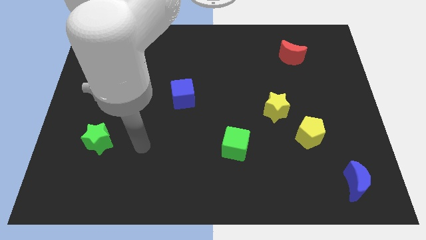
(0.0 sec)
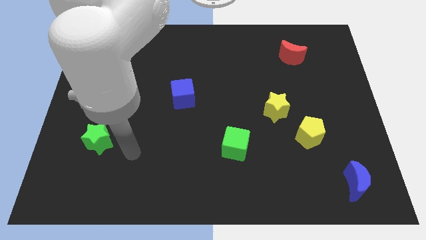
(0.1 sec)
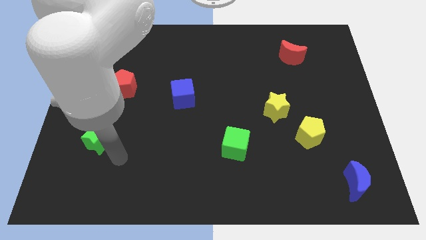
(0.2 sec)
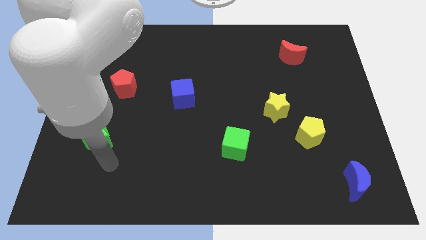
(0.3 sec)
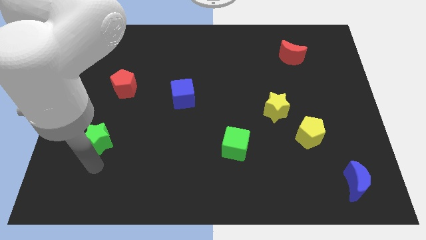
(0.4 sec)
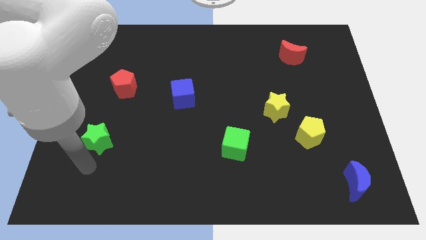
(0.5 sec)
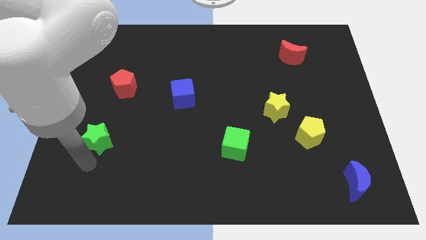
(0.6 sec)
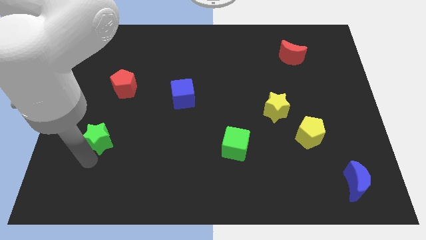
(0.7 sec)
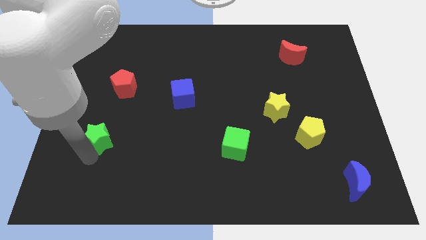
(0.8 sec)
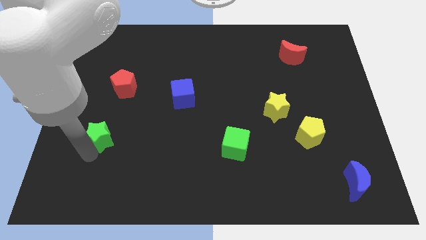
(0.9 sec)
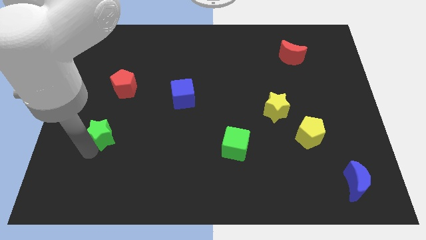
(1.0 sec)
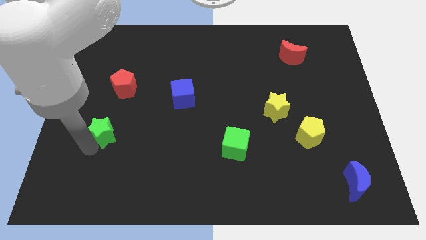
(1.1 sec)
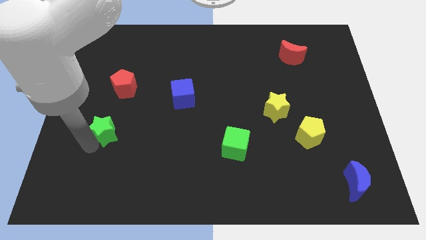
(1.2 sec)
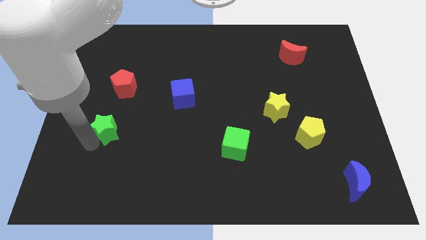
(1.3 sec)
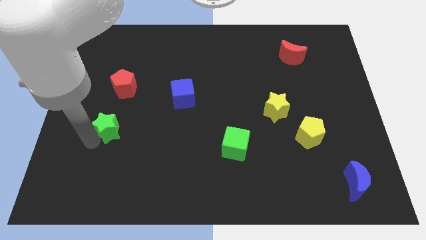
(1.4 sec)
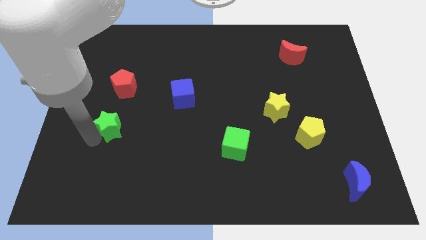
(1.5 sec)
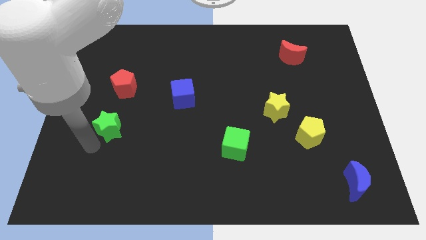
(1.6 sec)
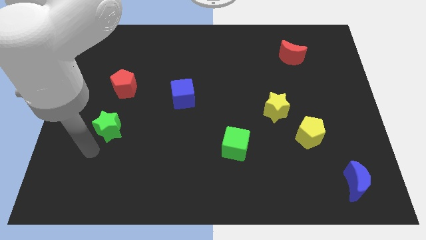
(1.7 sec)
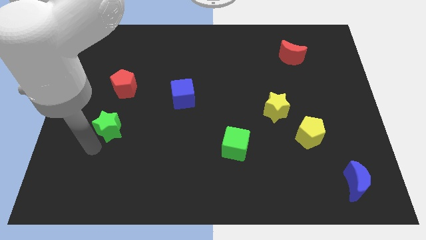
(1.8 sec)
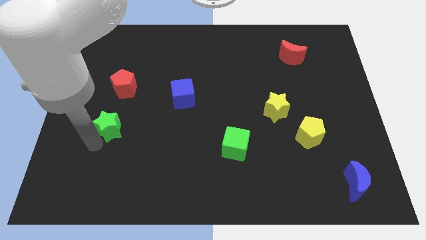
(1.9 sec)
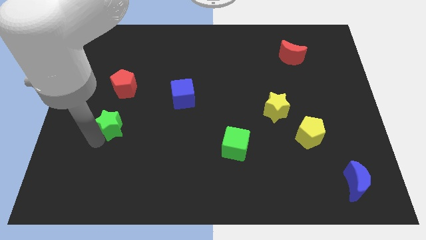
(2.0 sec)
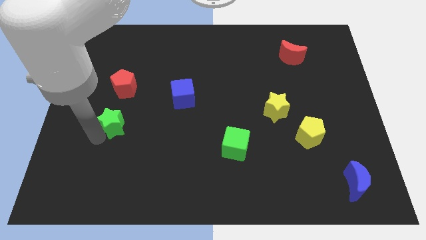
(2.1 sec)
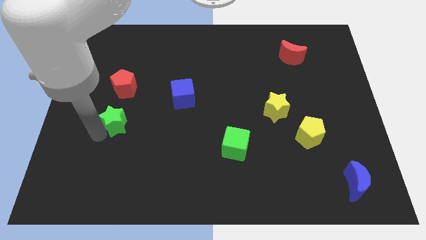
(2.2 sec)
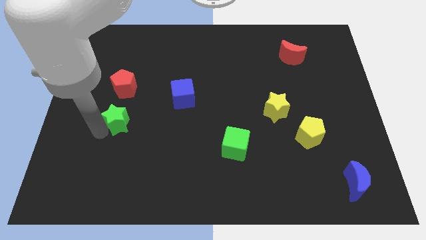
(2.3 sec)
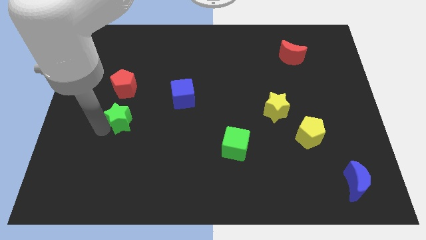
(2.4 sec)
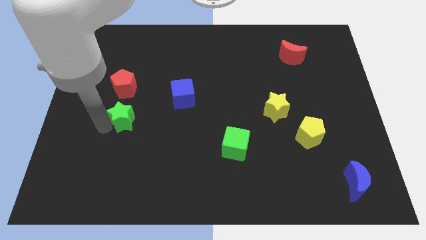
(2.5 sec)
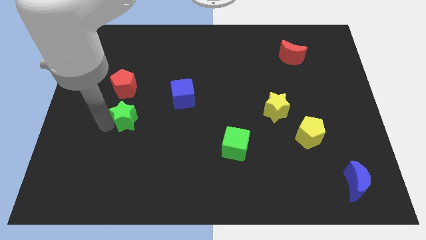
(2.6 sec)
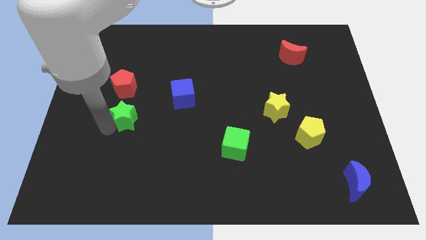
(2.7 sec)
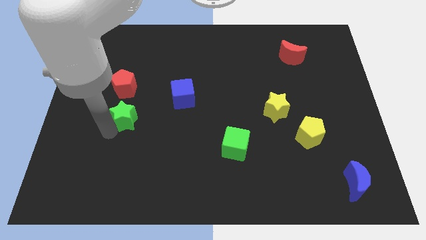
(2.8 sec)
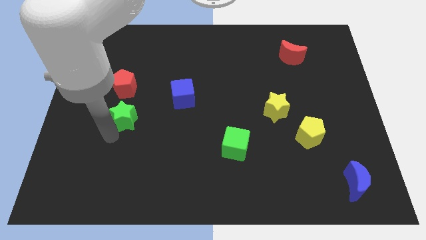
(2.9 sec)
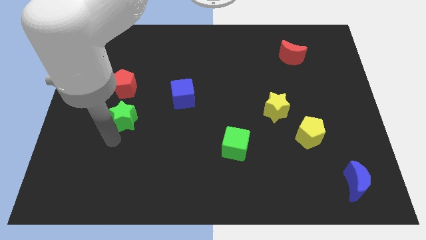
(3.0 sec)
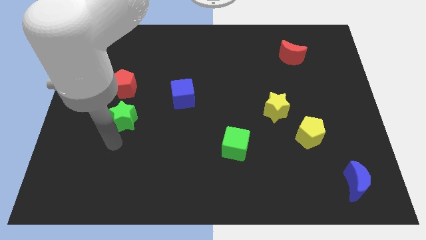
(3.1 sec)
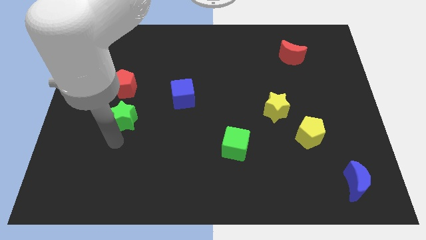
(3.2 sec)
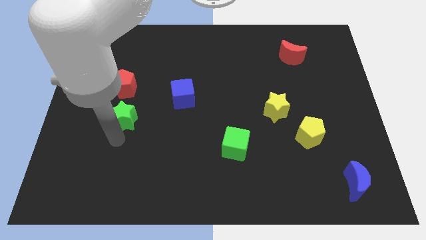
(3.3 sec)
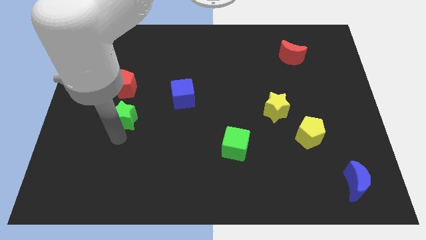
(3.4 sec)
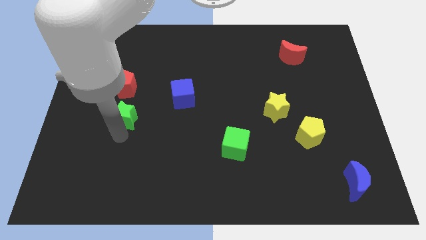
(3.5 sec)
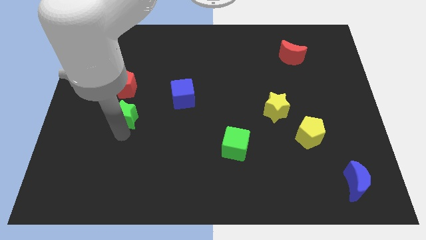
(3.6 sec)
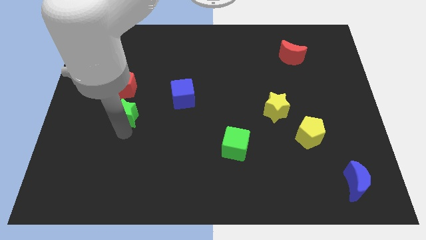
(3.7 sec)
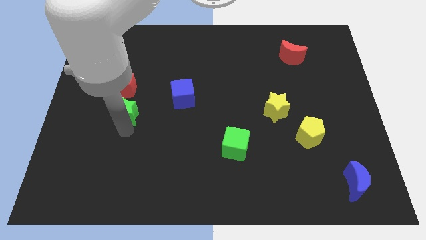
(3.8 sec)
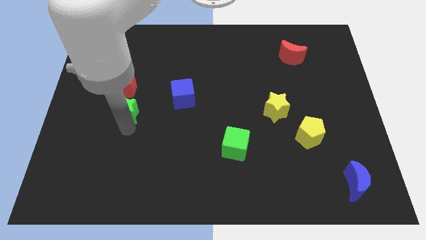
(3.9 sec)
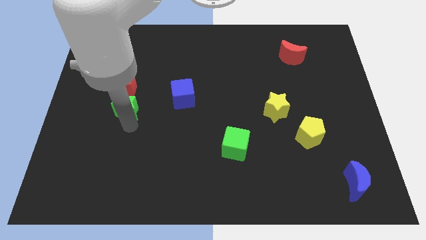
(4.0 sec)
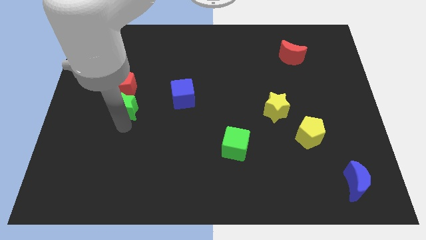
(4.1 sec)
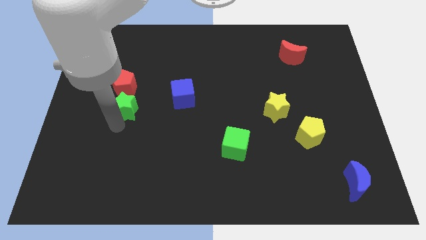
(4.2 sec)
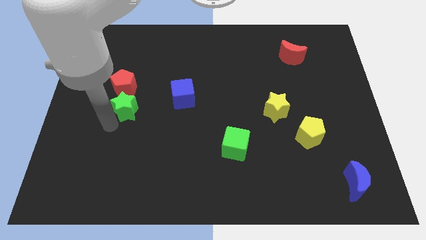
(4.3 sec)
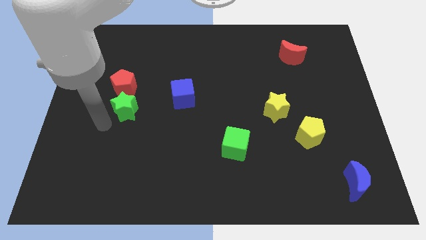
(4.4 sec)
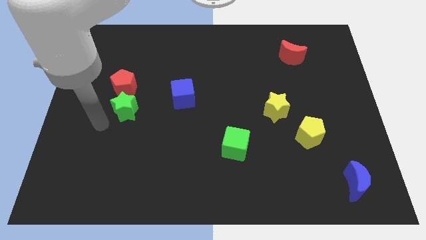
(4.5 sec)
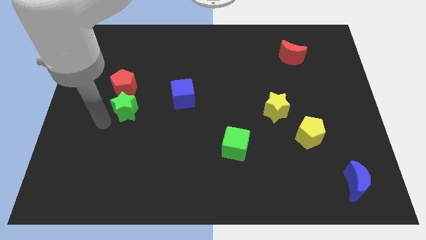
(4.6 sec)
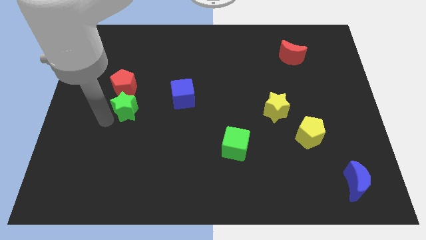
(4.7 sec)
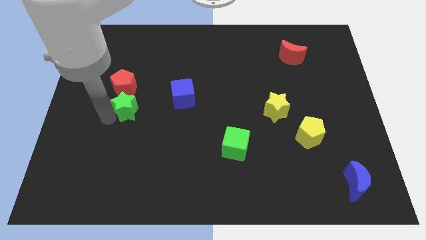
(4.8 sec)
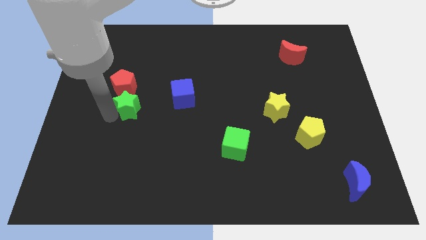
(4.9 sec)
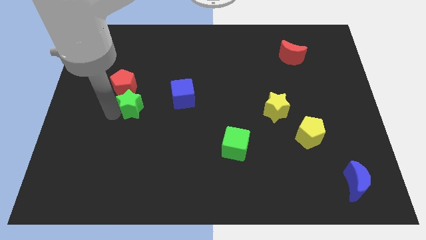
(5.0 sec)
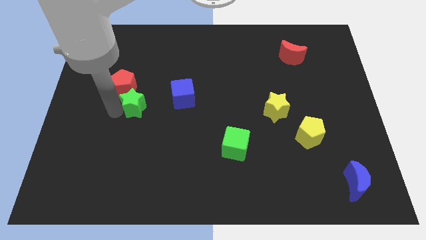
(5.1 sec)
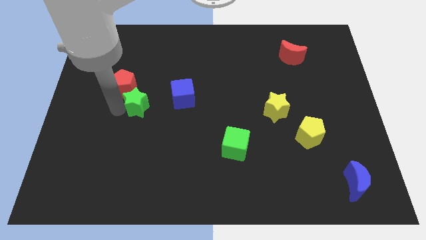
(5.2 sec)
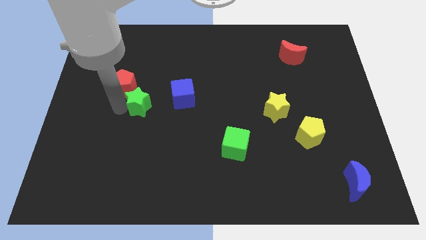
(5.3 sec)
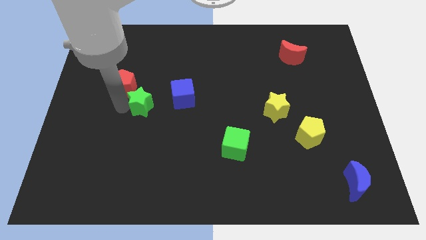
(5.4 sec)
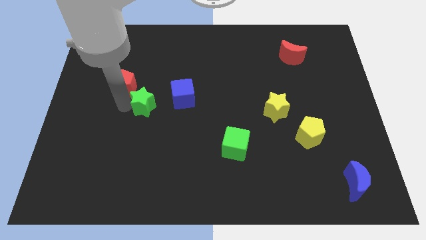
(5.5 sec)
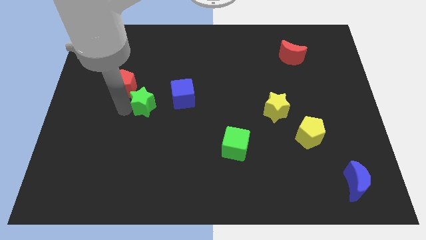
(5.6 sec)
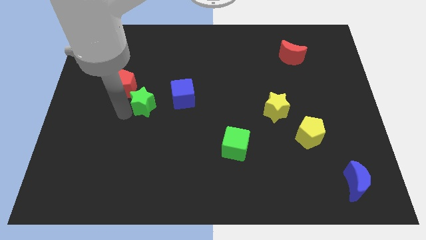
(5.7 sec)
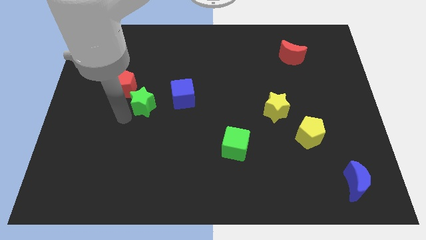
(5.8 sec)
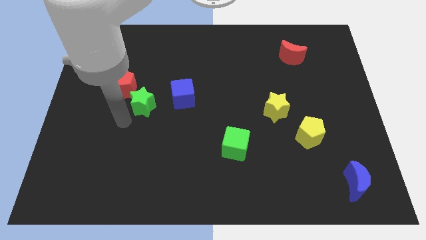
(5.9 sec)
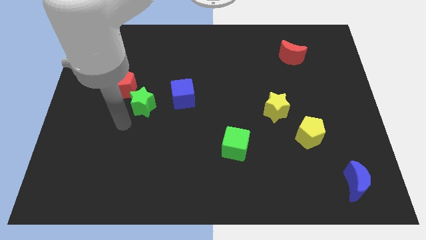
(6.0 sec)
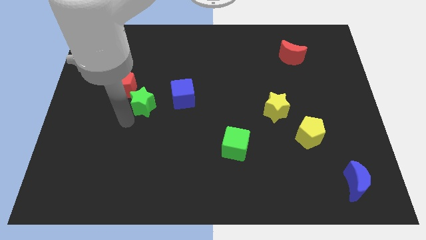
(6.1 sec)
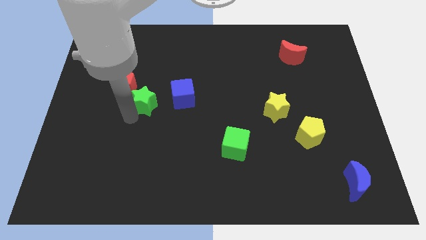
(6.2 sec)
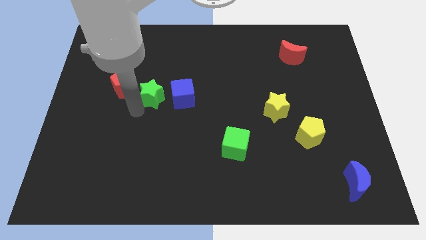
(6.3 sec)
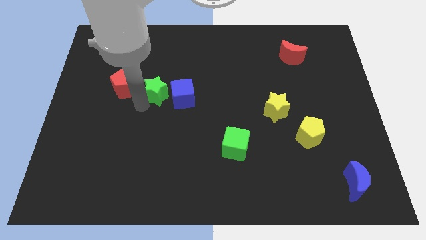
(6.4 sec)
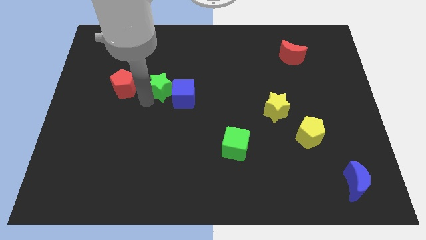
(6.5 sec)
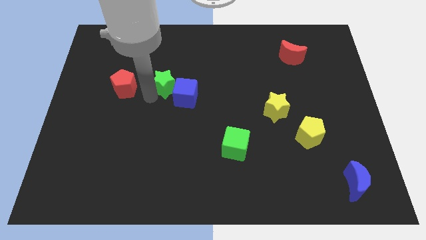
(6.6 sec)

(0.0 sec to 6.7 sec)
push the green star upwards and to the right diagonally

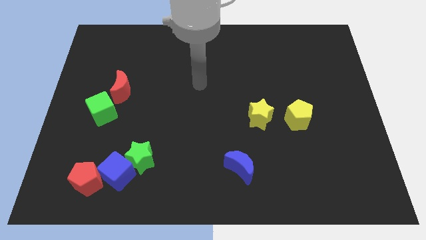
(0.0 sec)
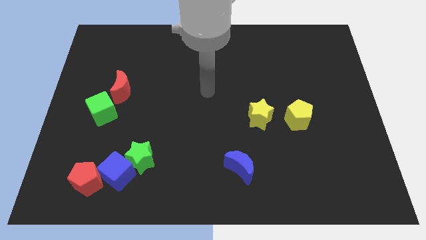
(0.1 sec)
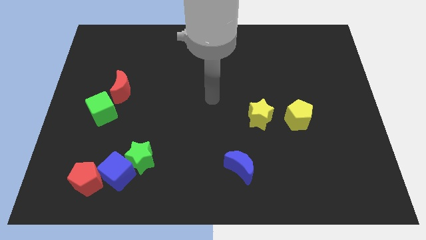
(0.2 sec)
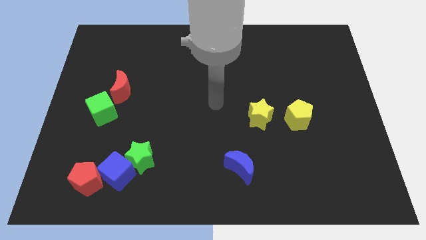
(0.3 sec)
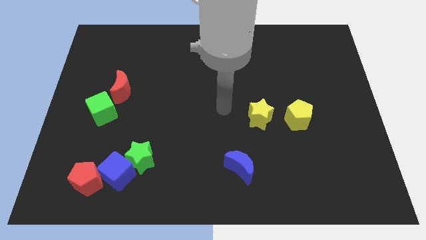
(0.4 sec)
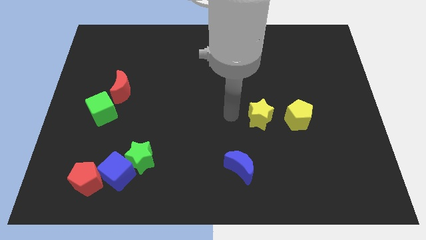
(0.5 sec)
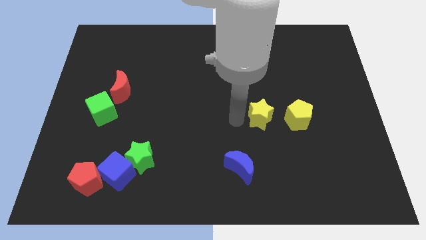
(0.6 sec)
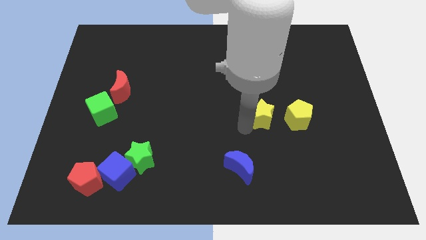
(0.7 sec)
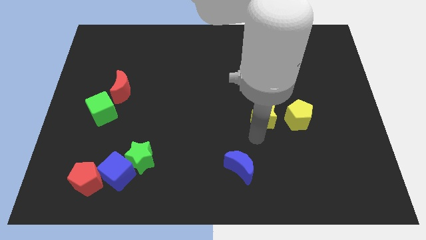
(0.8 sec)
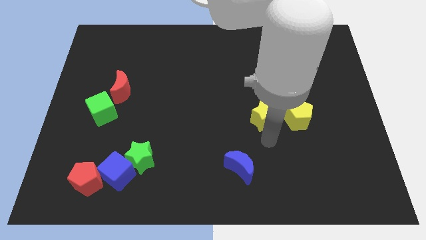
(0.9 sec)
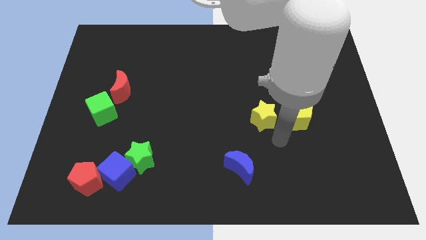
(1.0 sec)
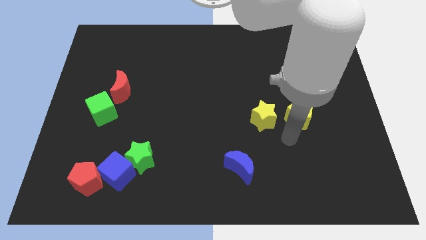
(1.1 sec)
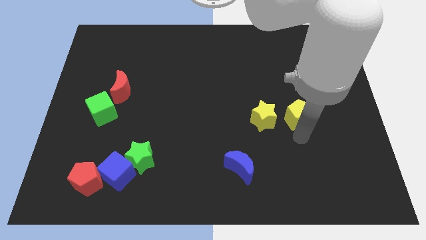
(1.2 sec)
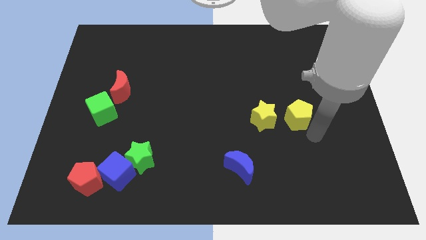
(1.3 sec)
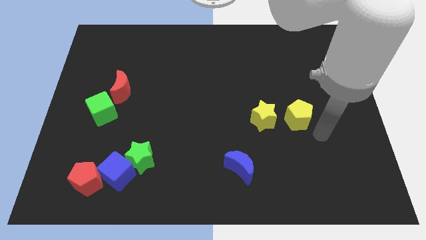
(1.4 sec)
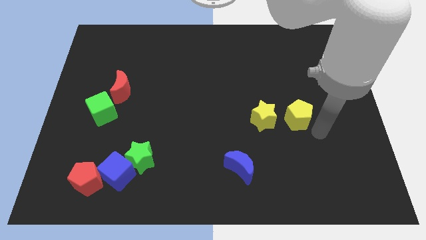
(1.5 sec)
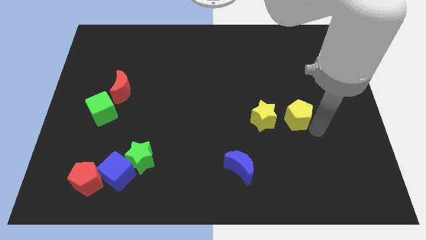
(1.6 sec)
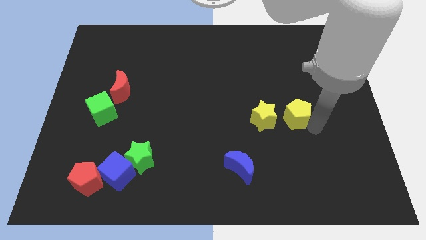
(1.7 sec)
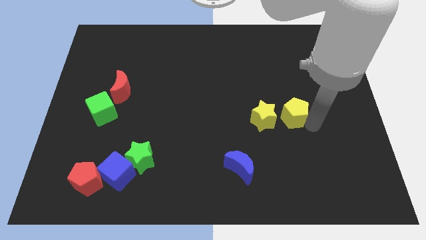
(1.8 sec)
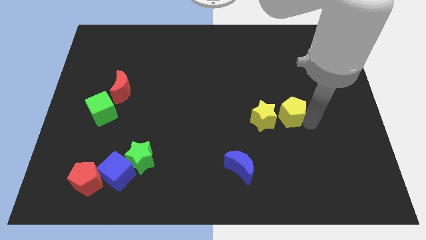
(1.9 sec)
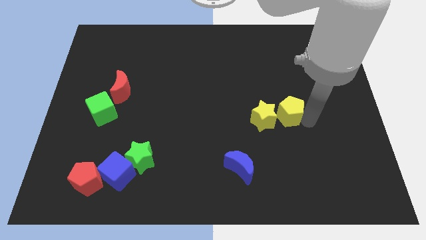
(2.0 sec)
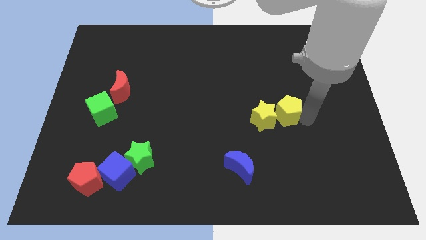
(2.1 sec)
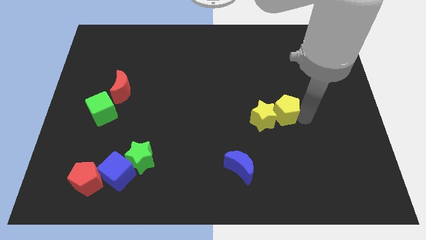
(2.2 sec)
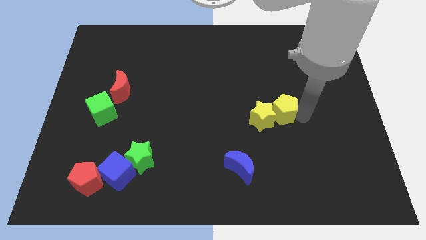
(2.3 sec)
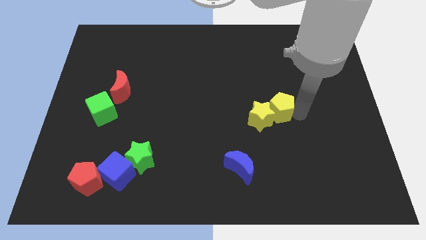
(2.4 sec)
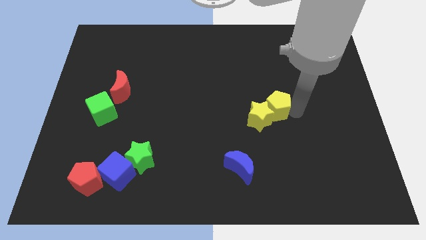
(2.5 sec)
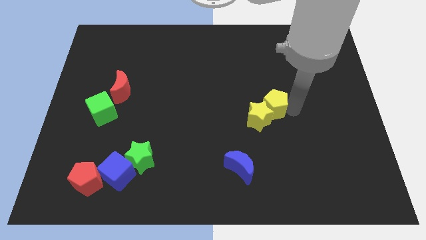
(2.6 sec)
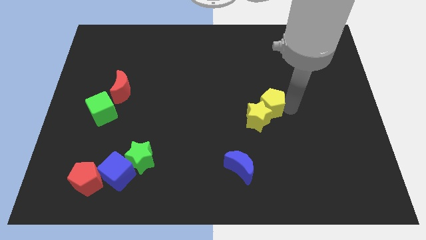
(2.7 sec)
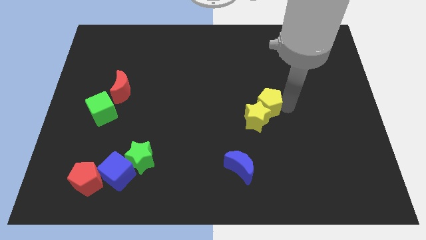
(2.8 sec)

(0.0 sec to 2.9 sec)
slide the yellow pentagon upwards and then to the left a little
